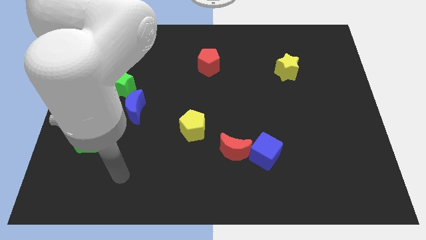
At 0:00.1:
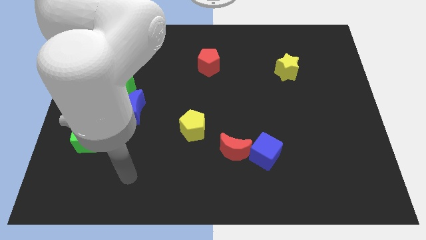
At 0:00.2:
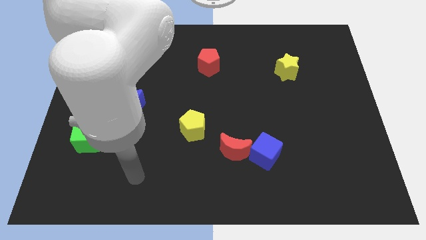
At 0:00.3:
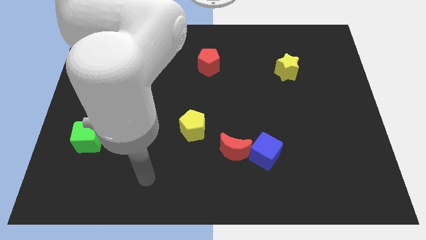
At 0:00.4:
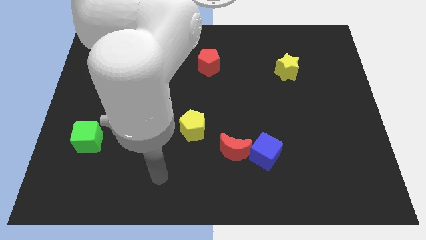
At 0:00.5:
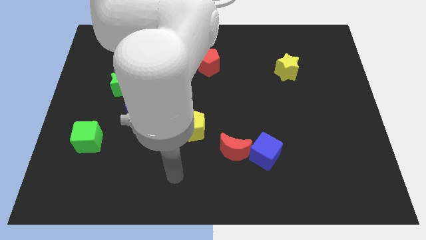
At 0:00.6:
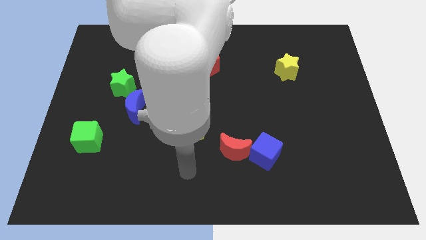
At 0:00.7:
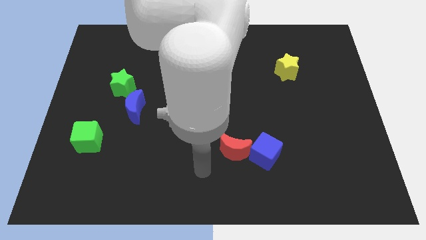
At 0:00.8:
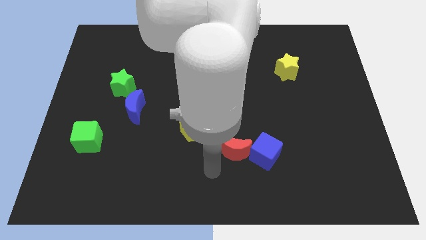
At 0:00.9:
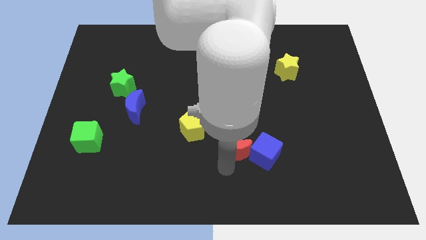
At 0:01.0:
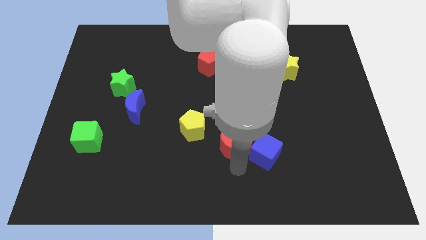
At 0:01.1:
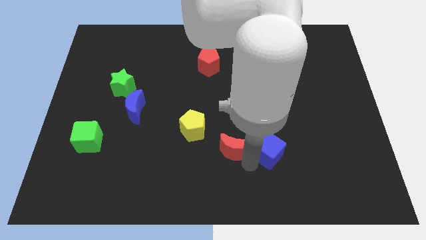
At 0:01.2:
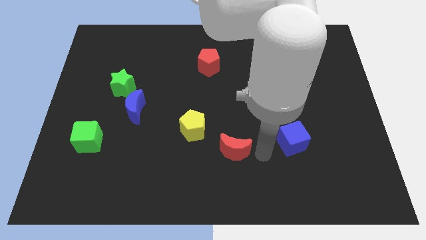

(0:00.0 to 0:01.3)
separate the red moon from the blue cube

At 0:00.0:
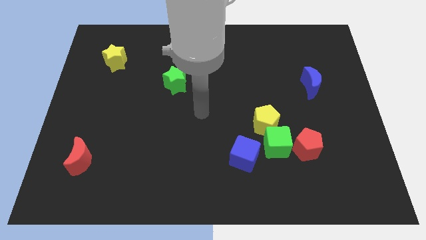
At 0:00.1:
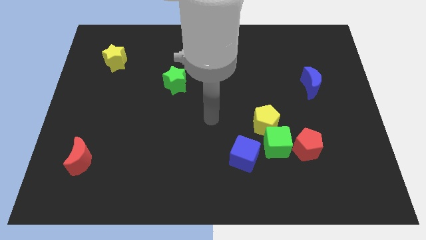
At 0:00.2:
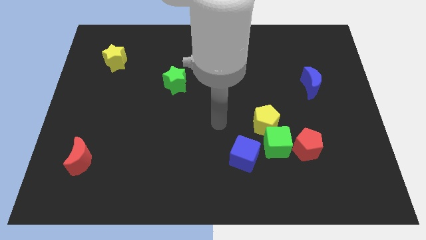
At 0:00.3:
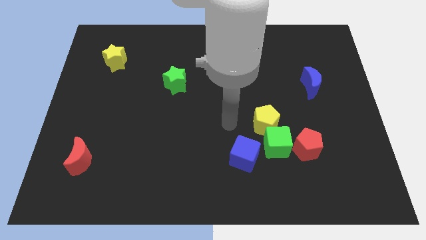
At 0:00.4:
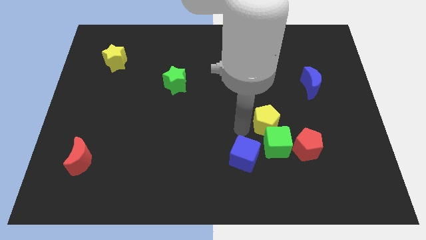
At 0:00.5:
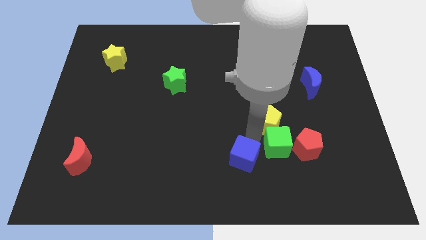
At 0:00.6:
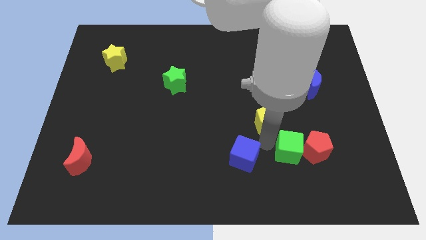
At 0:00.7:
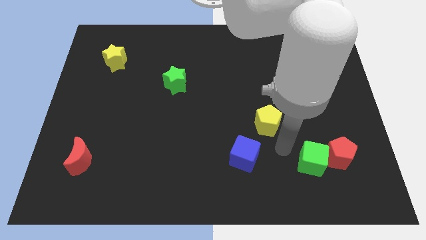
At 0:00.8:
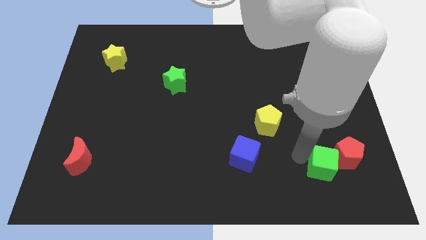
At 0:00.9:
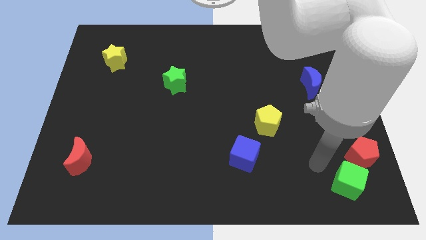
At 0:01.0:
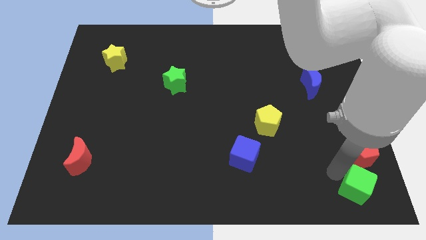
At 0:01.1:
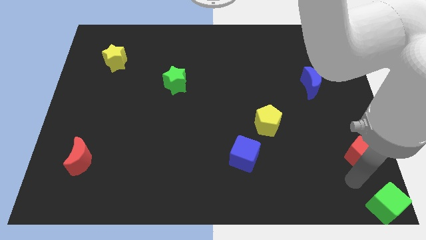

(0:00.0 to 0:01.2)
separate the red pentagon from the green cube

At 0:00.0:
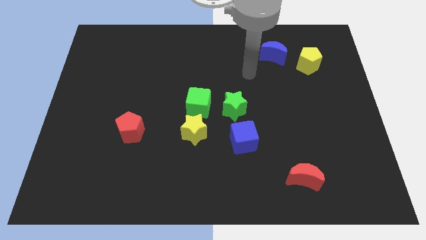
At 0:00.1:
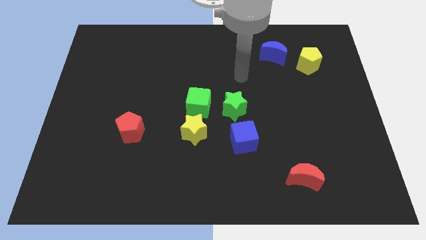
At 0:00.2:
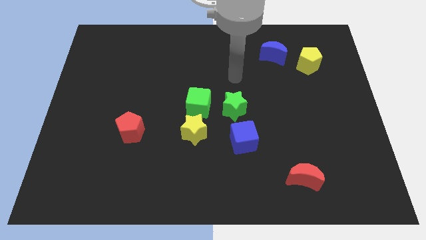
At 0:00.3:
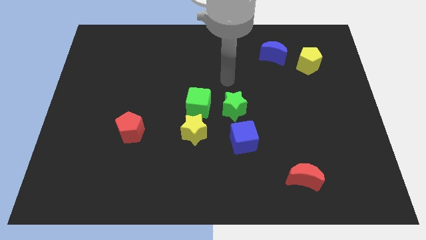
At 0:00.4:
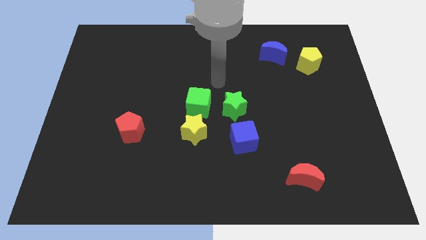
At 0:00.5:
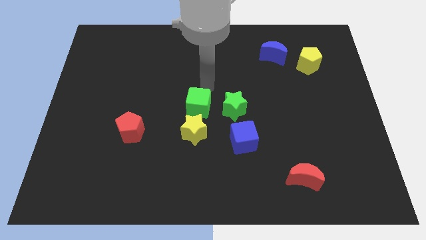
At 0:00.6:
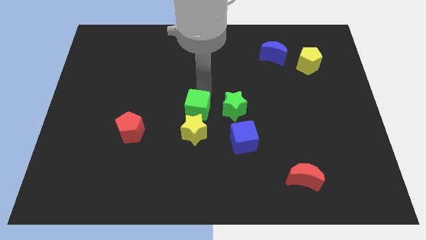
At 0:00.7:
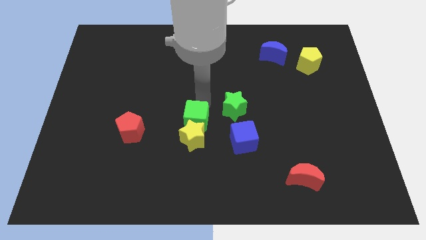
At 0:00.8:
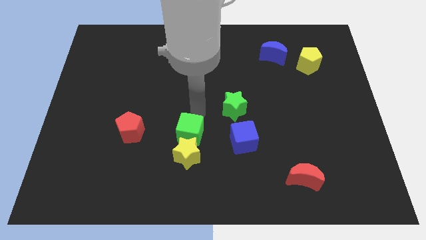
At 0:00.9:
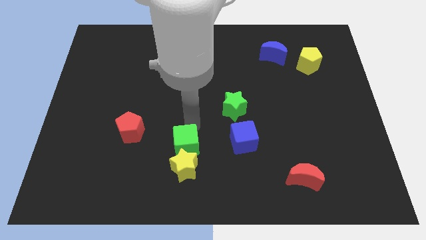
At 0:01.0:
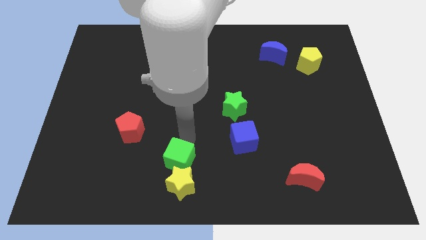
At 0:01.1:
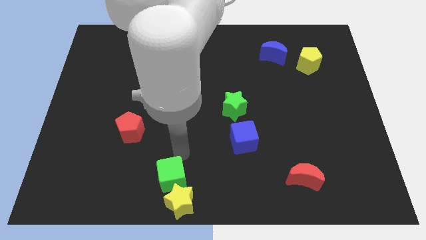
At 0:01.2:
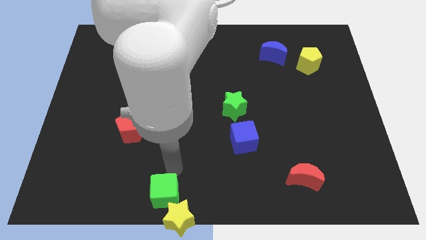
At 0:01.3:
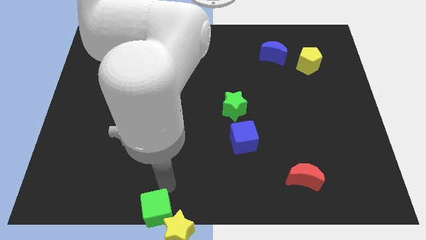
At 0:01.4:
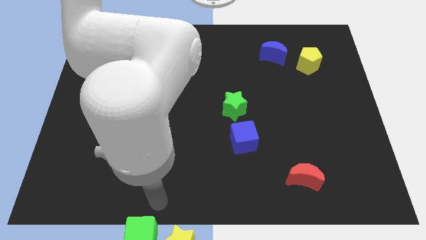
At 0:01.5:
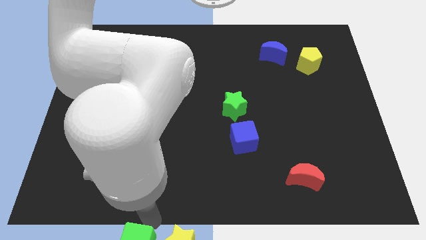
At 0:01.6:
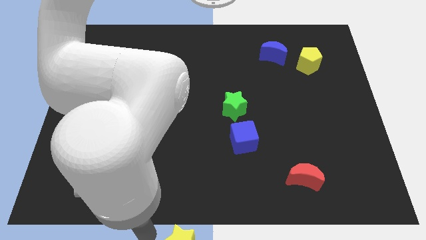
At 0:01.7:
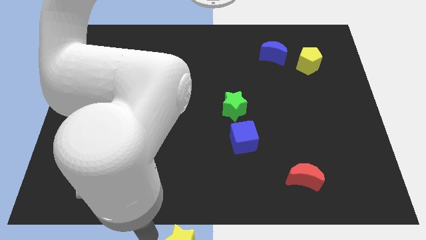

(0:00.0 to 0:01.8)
move the yellow star away from the green cube

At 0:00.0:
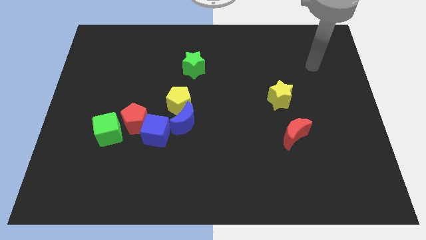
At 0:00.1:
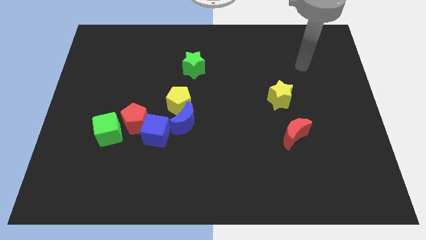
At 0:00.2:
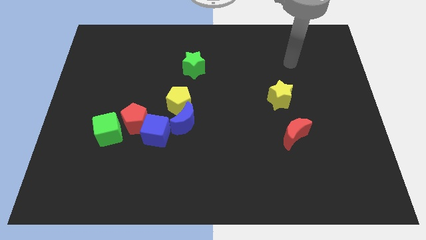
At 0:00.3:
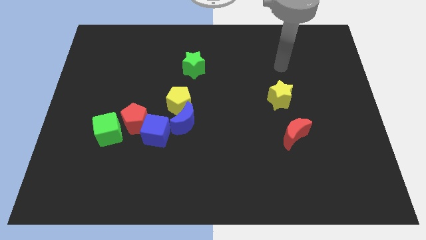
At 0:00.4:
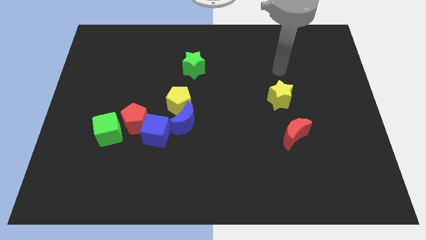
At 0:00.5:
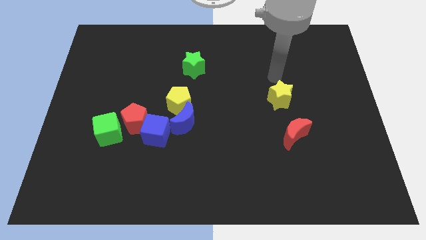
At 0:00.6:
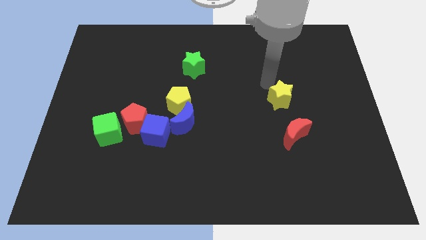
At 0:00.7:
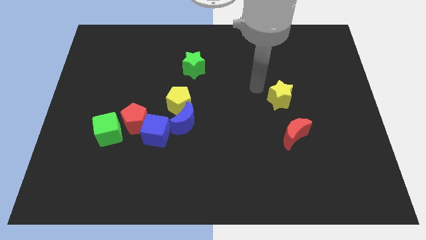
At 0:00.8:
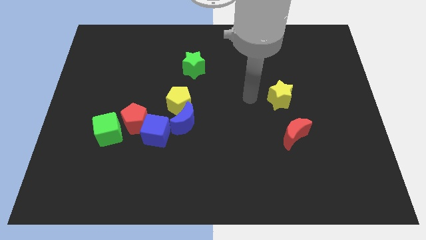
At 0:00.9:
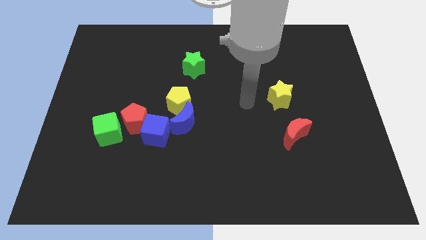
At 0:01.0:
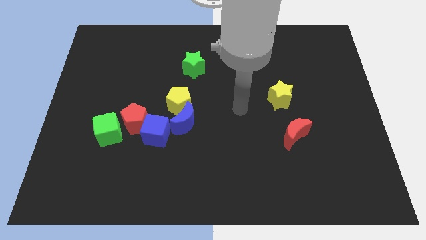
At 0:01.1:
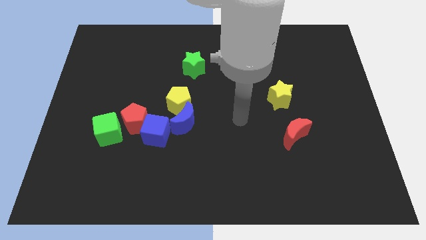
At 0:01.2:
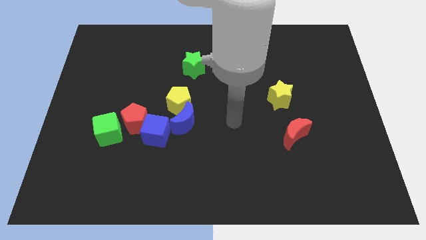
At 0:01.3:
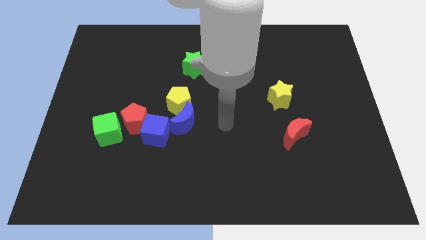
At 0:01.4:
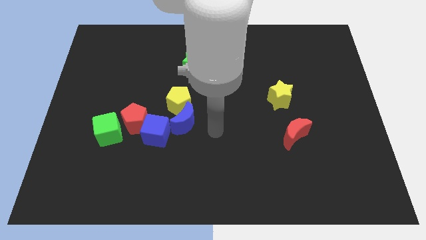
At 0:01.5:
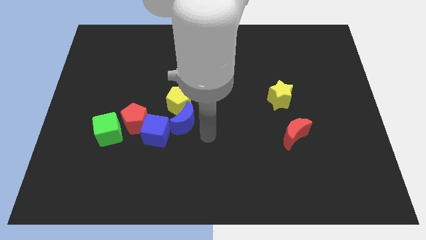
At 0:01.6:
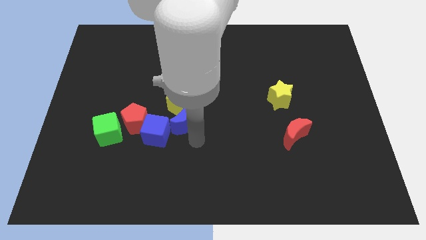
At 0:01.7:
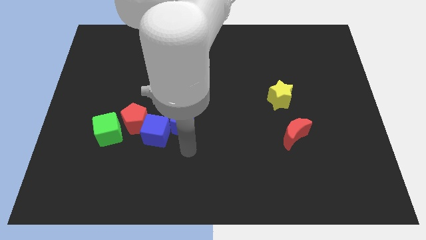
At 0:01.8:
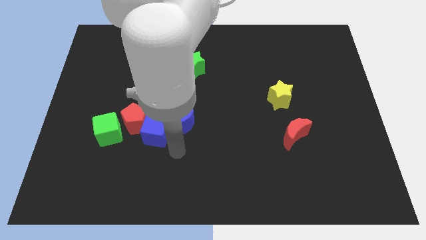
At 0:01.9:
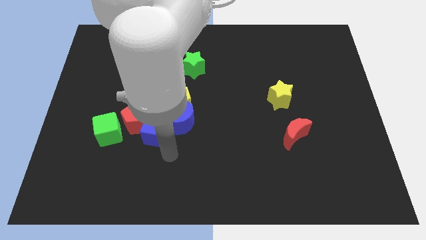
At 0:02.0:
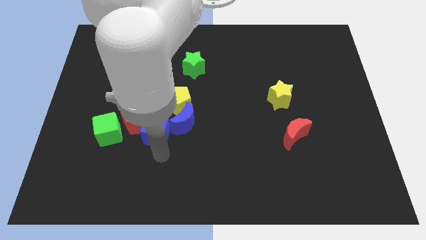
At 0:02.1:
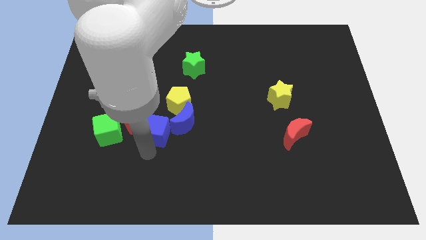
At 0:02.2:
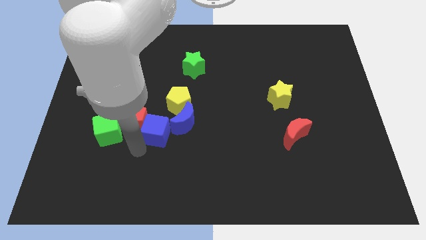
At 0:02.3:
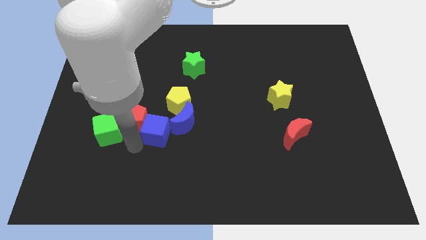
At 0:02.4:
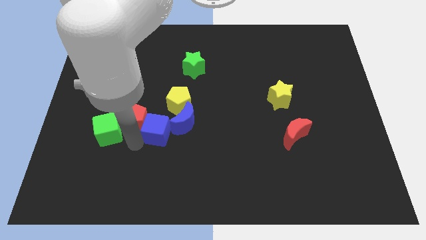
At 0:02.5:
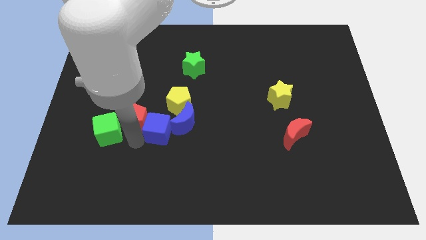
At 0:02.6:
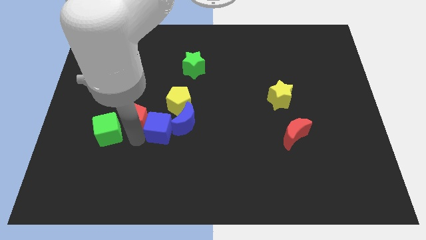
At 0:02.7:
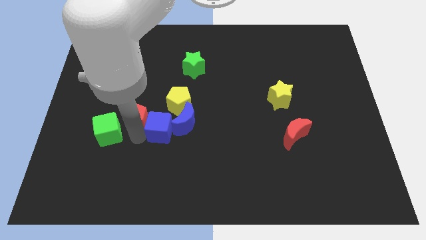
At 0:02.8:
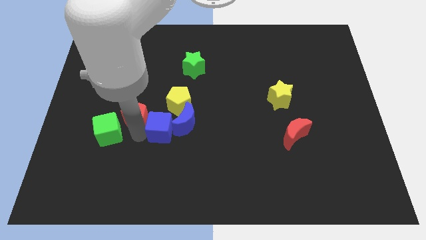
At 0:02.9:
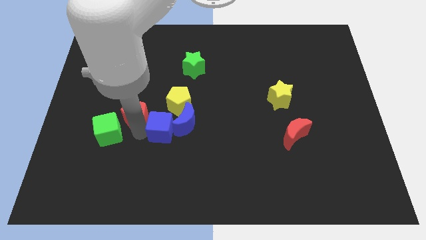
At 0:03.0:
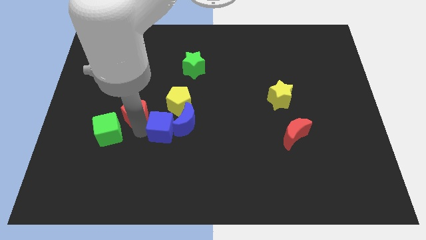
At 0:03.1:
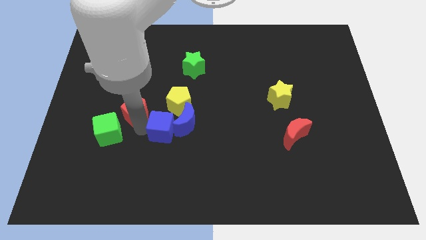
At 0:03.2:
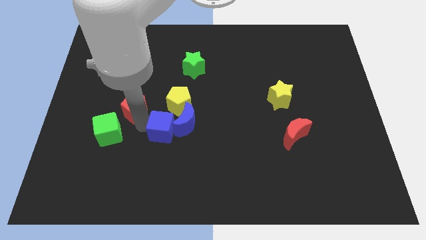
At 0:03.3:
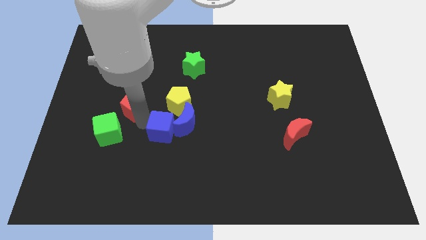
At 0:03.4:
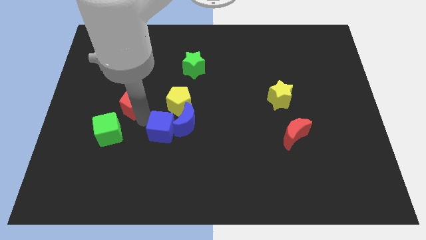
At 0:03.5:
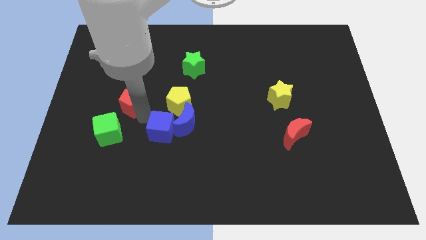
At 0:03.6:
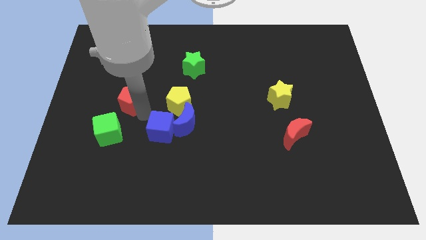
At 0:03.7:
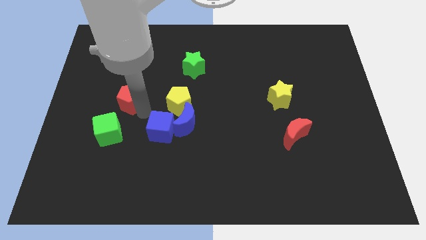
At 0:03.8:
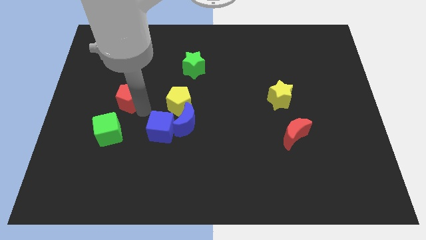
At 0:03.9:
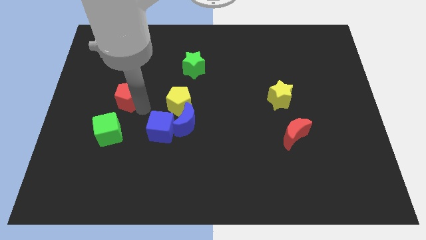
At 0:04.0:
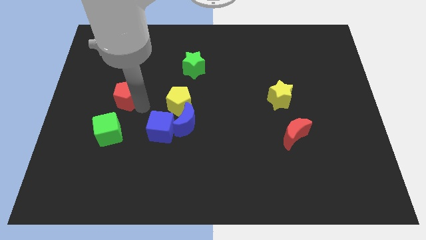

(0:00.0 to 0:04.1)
separate the red pentagon from the blue cube and green cube

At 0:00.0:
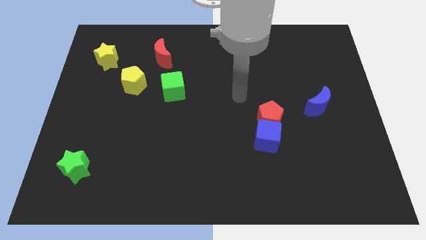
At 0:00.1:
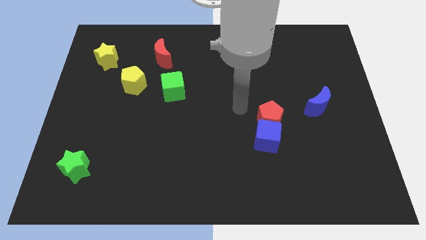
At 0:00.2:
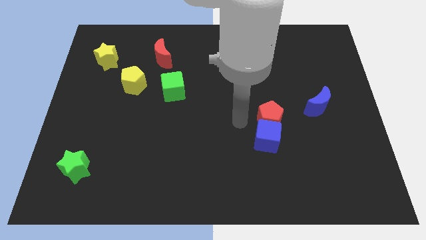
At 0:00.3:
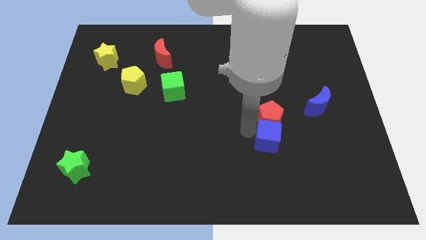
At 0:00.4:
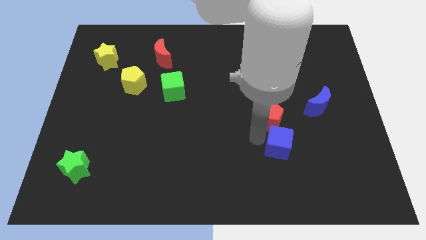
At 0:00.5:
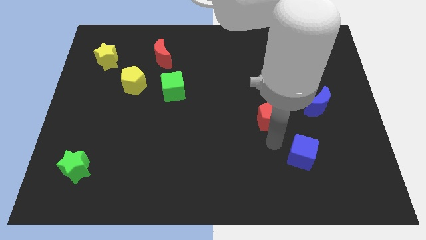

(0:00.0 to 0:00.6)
separate the red pentagon from the blue cube

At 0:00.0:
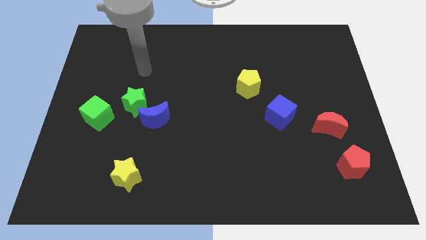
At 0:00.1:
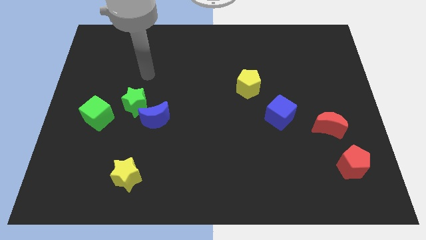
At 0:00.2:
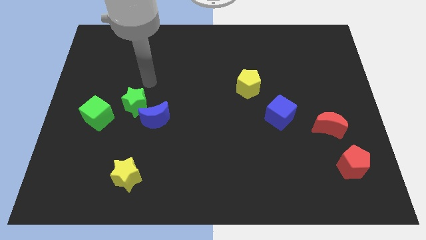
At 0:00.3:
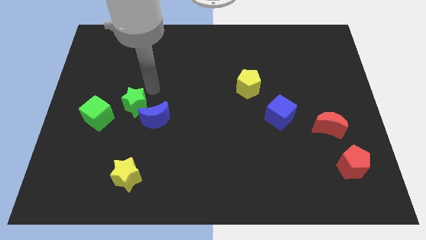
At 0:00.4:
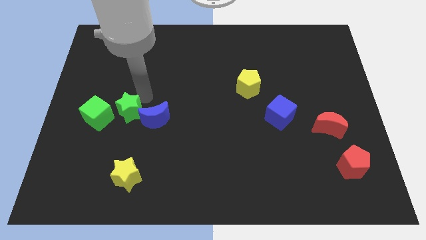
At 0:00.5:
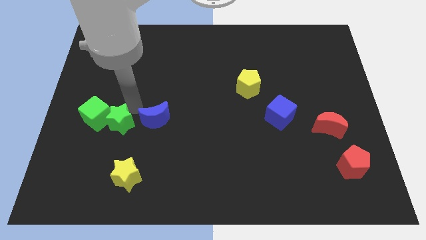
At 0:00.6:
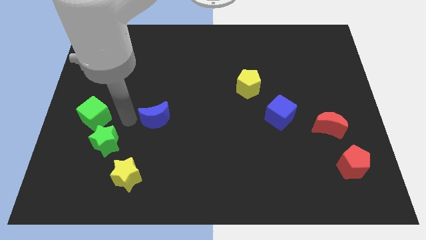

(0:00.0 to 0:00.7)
move the blue moon away from the green star
